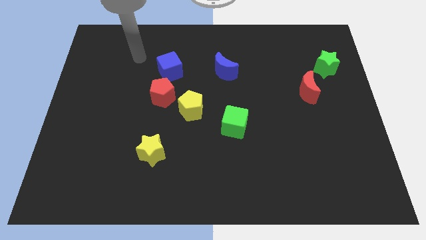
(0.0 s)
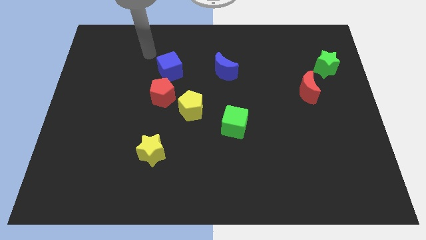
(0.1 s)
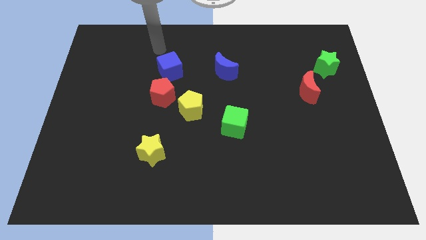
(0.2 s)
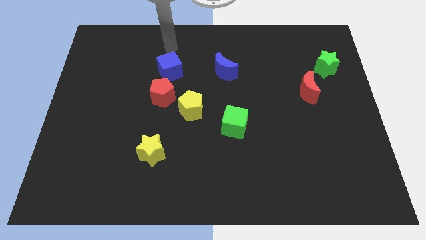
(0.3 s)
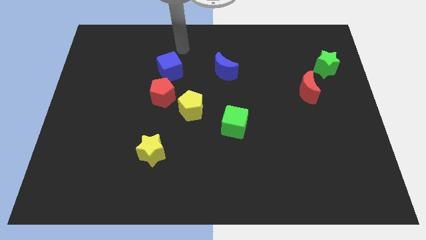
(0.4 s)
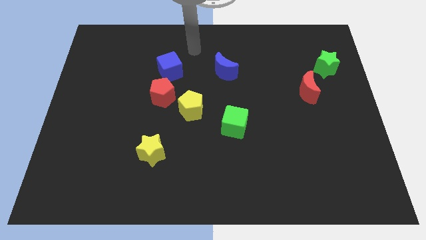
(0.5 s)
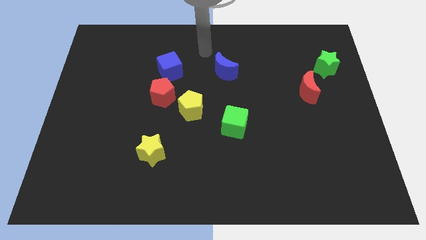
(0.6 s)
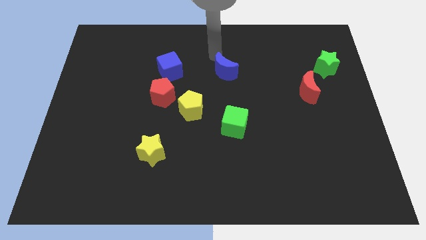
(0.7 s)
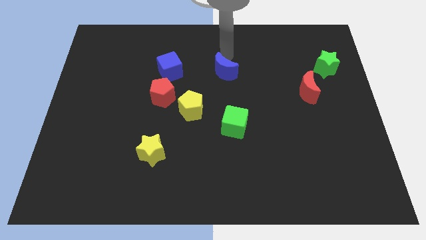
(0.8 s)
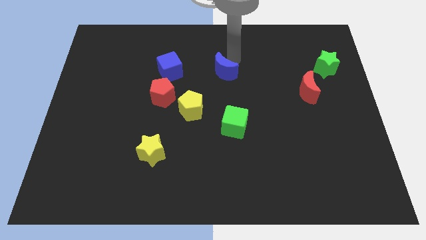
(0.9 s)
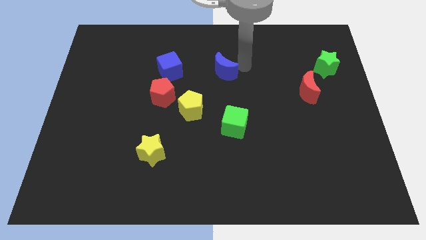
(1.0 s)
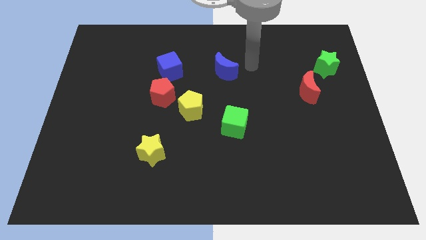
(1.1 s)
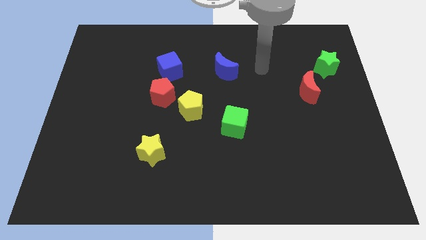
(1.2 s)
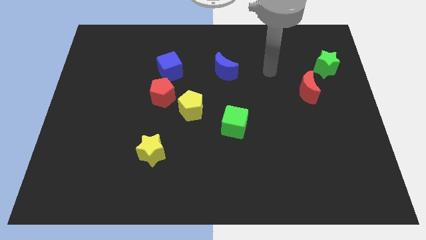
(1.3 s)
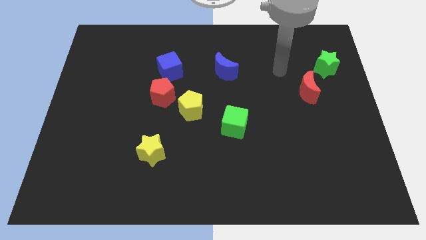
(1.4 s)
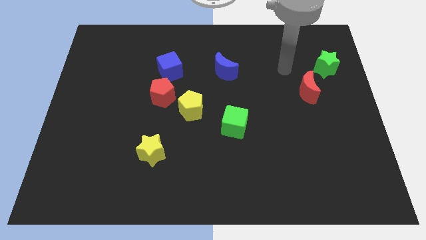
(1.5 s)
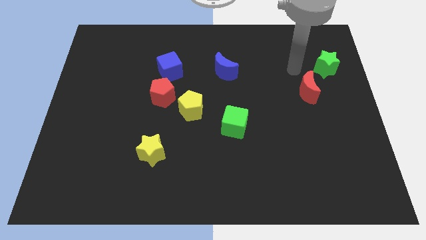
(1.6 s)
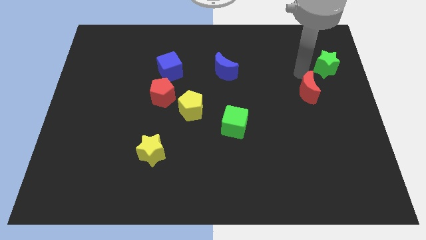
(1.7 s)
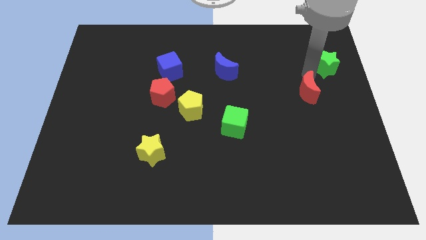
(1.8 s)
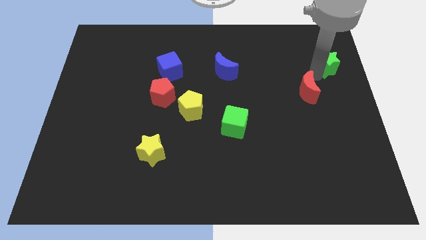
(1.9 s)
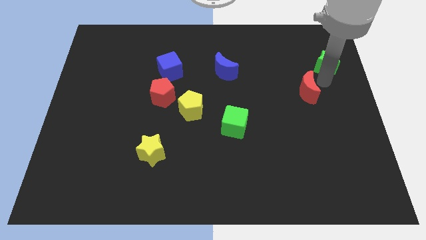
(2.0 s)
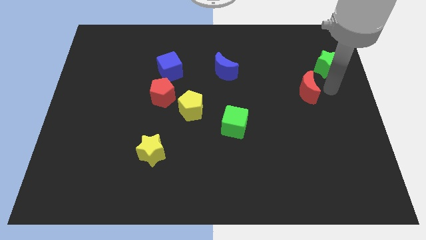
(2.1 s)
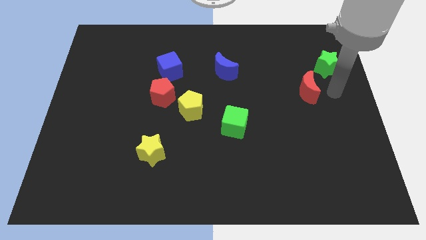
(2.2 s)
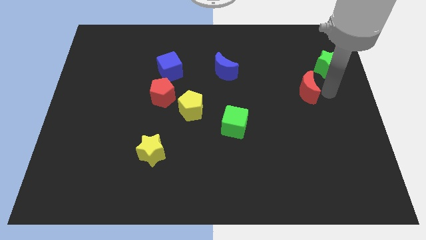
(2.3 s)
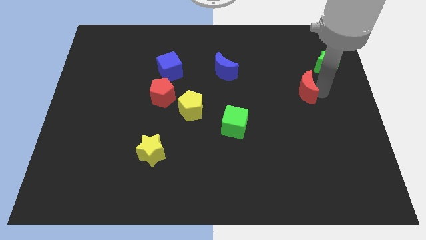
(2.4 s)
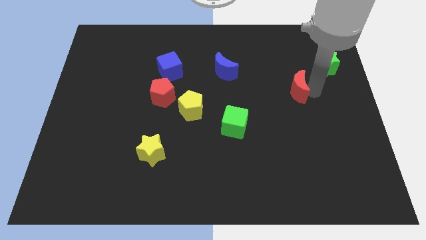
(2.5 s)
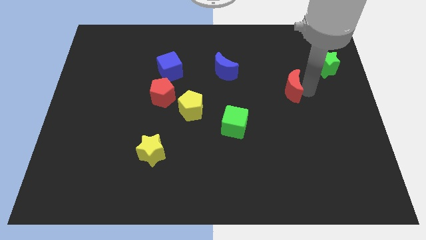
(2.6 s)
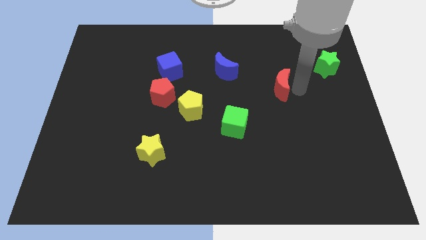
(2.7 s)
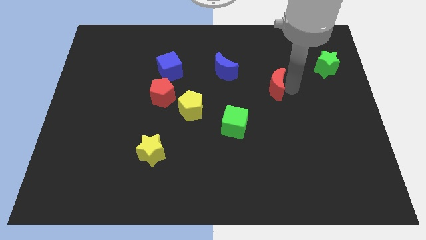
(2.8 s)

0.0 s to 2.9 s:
slightly move the red moon left

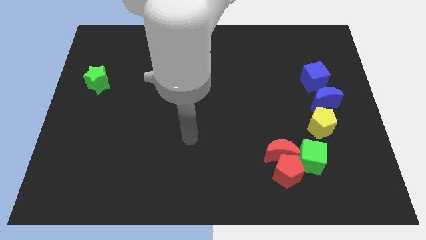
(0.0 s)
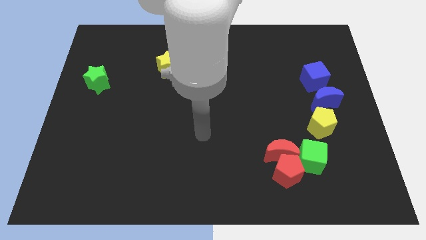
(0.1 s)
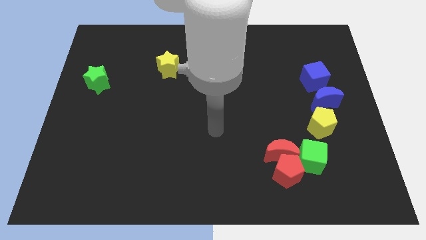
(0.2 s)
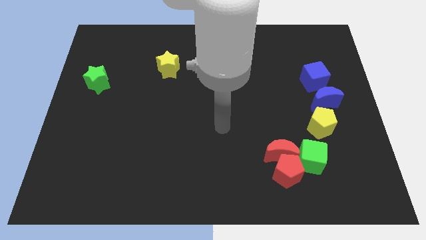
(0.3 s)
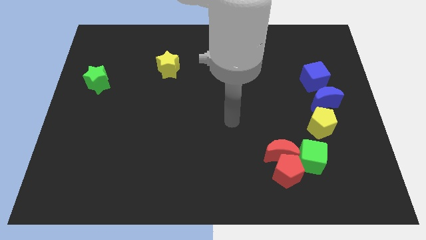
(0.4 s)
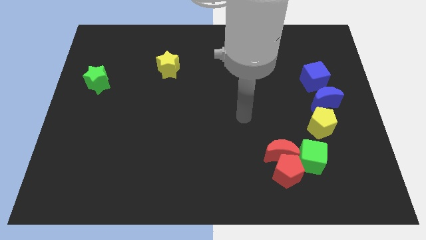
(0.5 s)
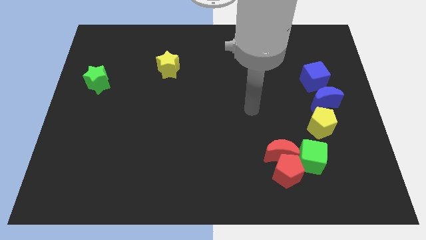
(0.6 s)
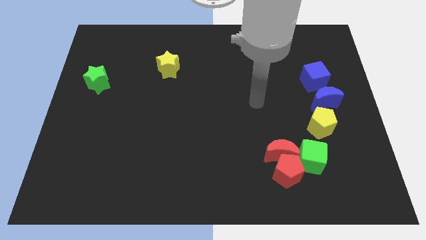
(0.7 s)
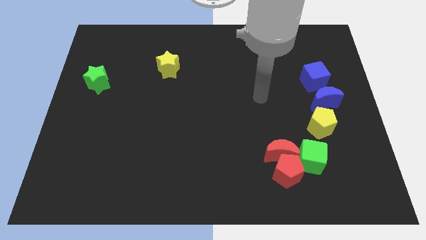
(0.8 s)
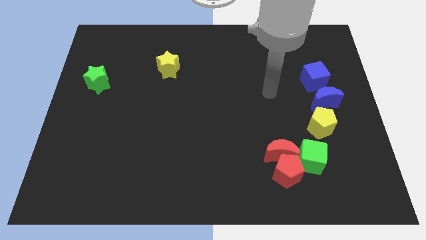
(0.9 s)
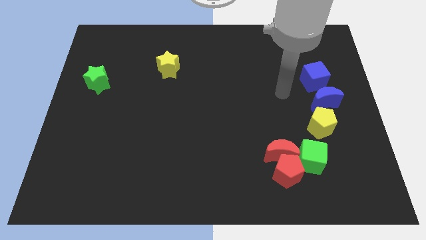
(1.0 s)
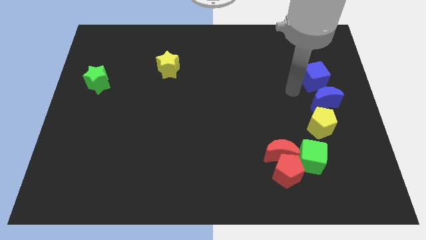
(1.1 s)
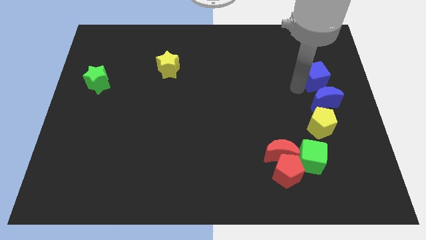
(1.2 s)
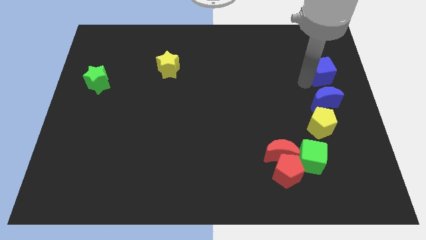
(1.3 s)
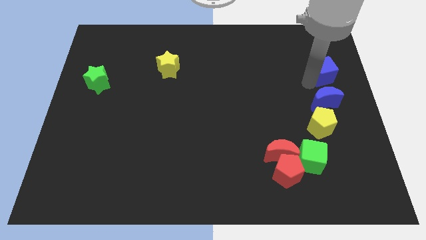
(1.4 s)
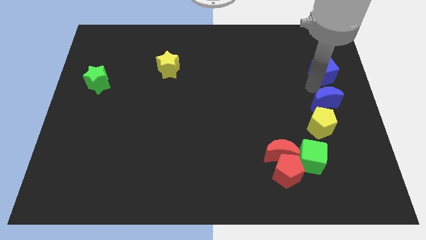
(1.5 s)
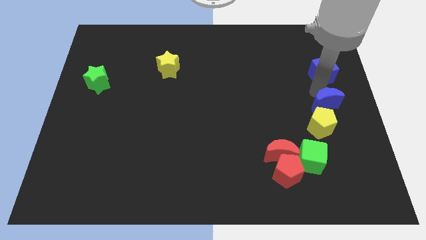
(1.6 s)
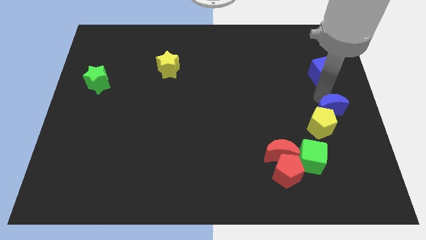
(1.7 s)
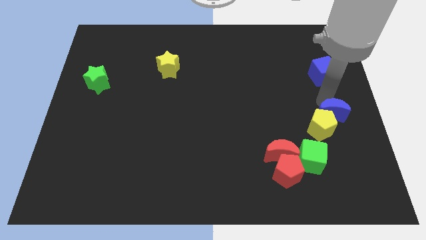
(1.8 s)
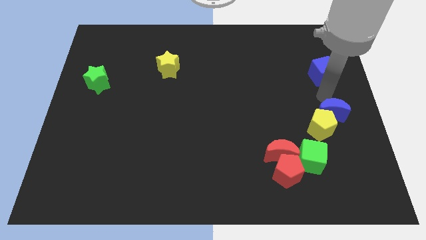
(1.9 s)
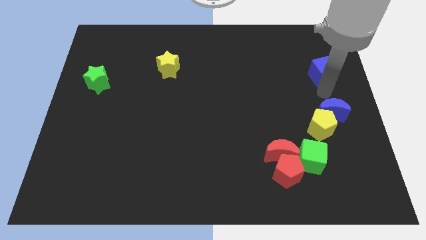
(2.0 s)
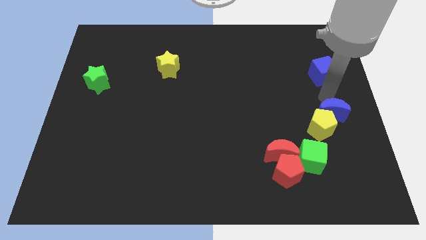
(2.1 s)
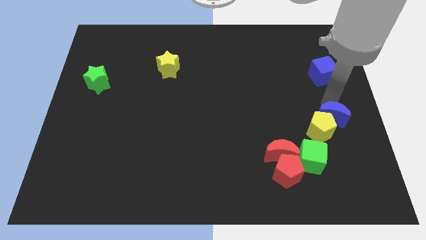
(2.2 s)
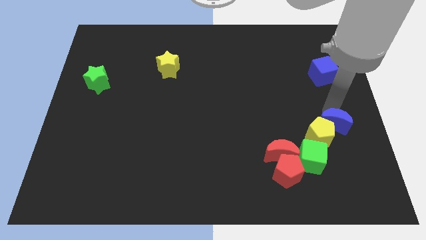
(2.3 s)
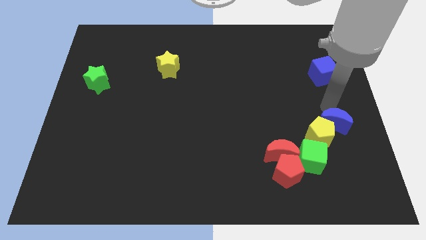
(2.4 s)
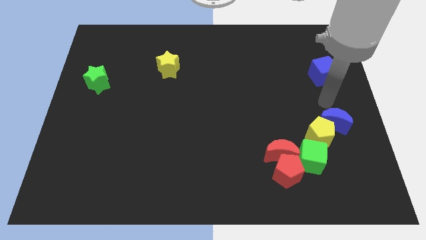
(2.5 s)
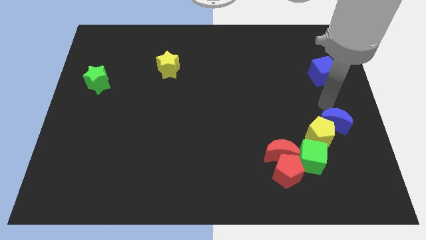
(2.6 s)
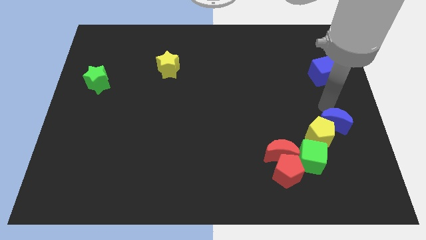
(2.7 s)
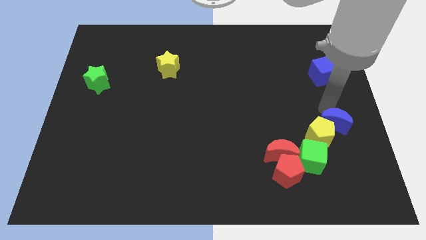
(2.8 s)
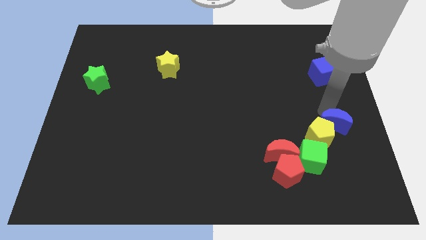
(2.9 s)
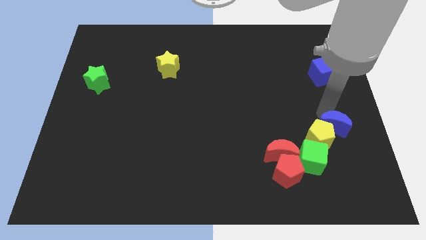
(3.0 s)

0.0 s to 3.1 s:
slightly move the blue moon downwards

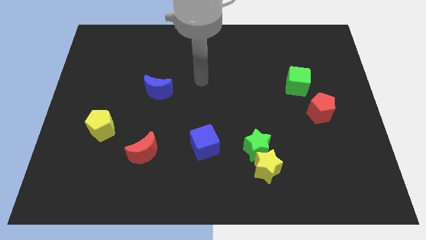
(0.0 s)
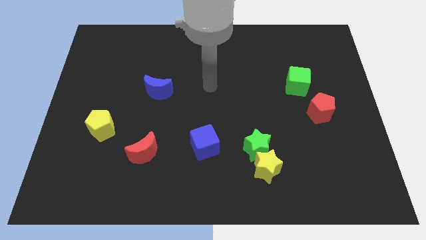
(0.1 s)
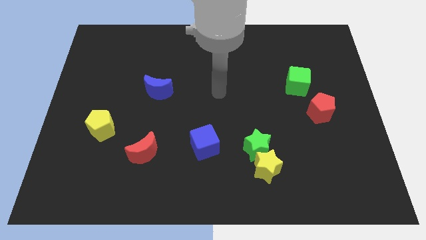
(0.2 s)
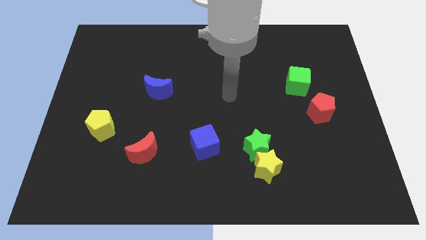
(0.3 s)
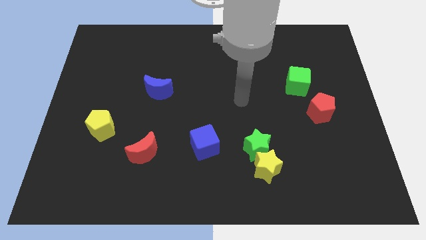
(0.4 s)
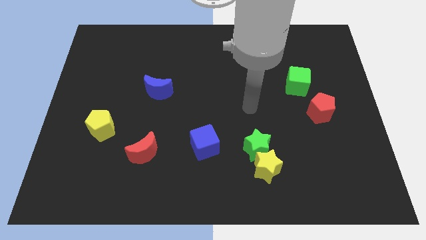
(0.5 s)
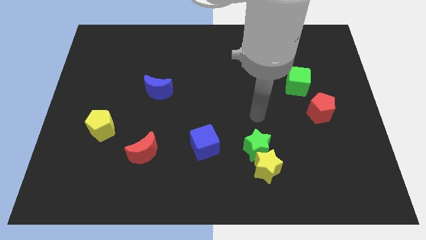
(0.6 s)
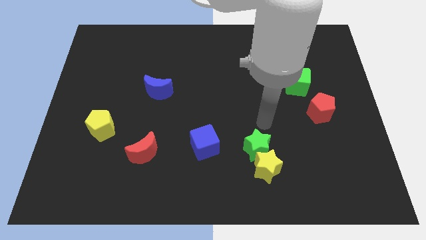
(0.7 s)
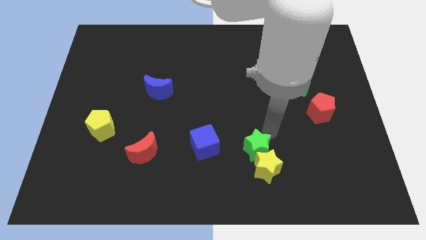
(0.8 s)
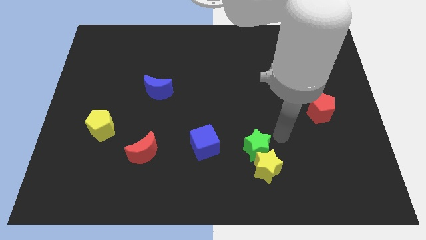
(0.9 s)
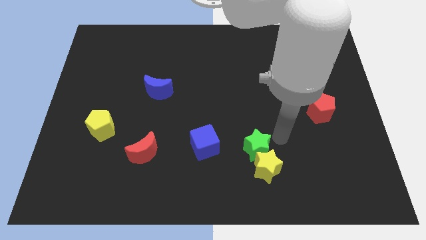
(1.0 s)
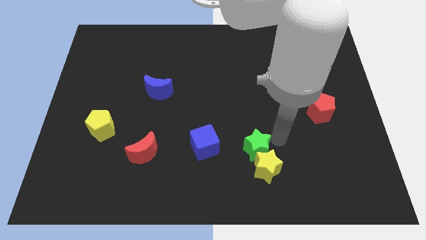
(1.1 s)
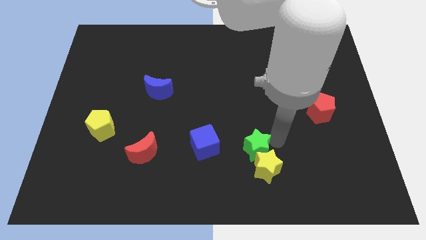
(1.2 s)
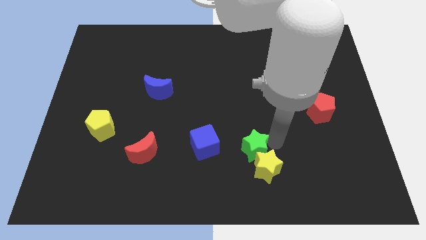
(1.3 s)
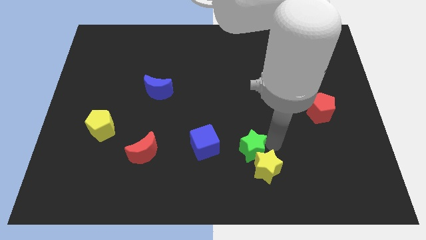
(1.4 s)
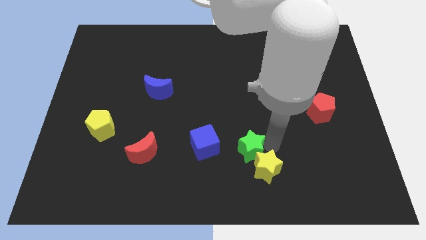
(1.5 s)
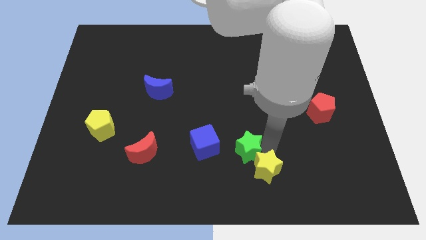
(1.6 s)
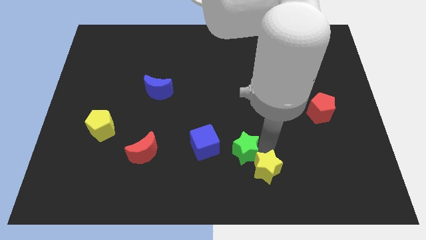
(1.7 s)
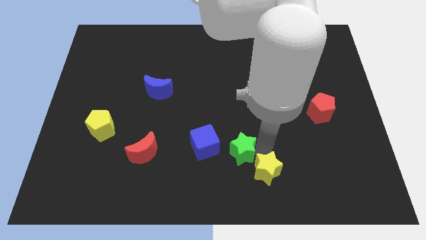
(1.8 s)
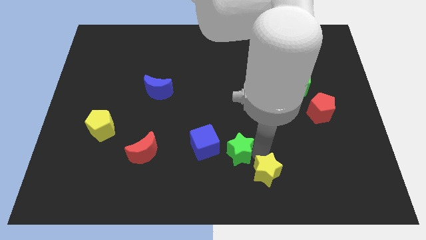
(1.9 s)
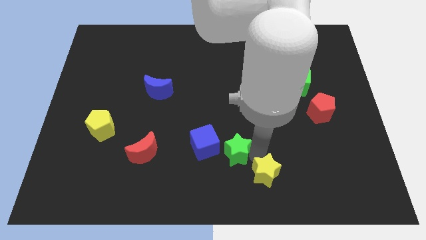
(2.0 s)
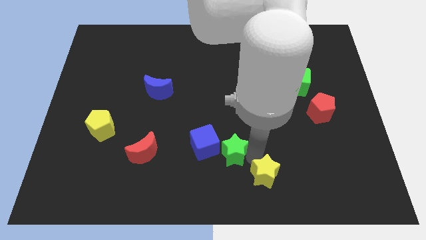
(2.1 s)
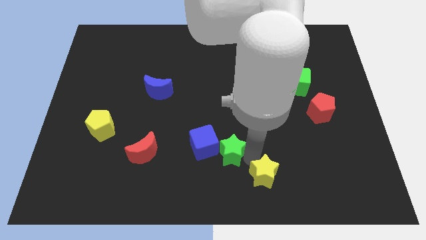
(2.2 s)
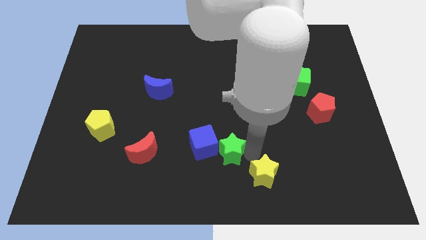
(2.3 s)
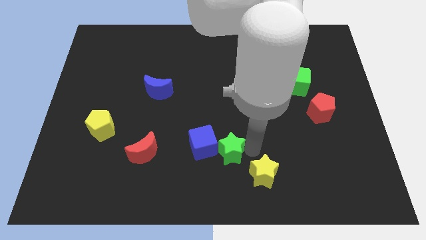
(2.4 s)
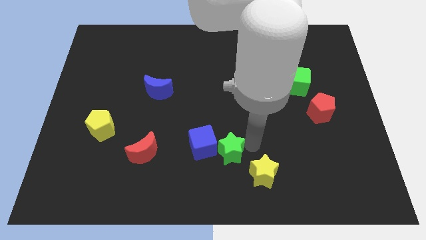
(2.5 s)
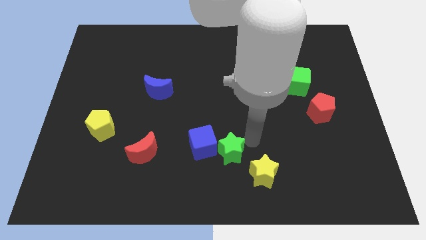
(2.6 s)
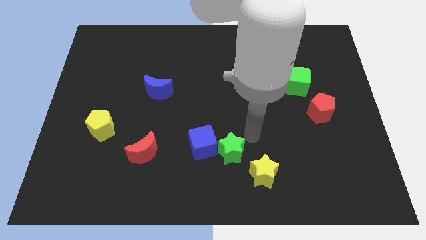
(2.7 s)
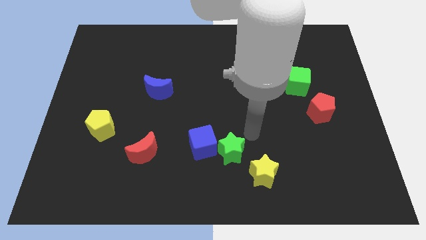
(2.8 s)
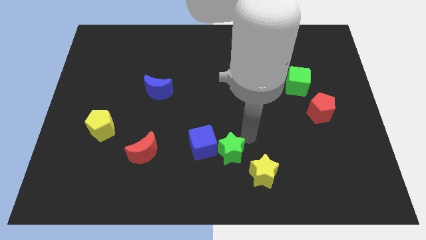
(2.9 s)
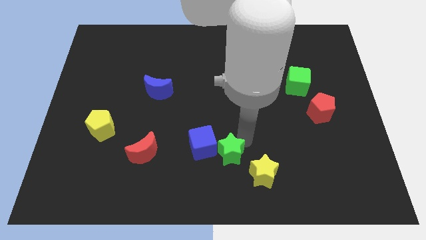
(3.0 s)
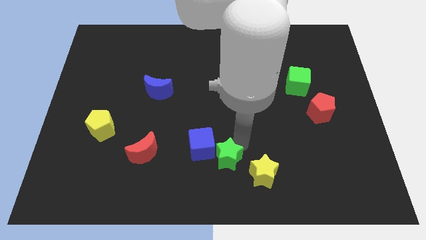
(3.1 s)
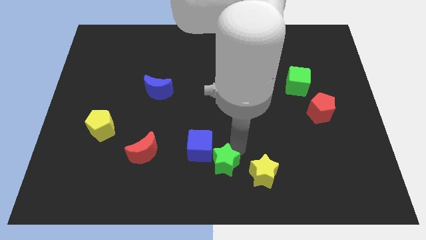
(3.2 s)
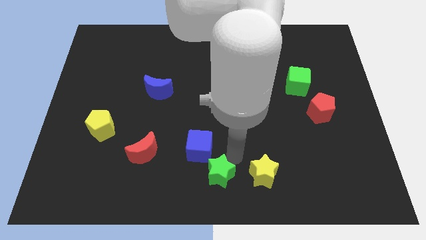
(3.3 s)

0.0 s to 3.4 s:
slide the green star to the left slightly
